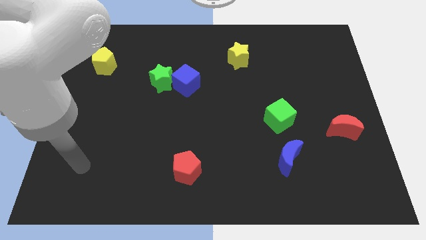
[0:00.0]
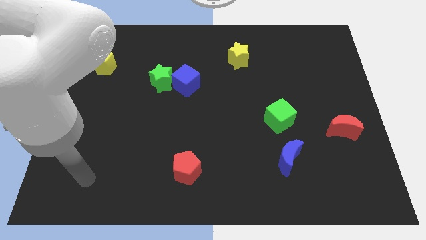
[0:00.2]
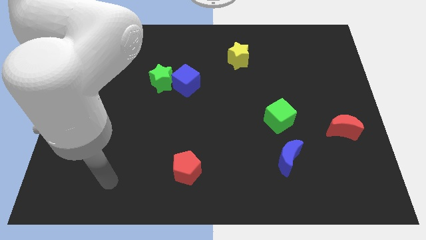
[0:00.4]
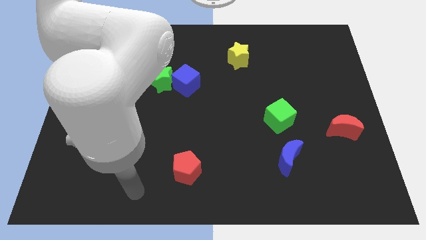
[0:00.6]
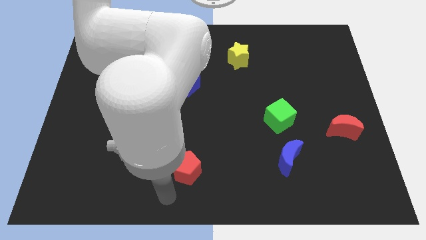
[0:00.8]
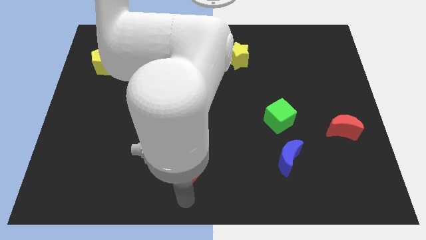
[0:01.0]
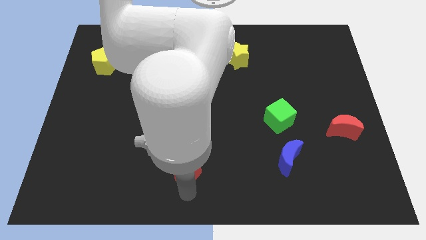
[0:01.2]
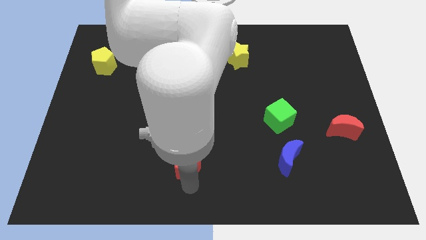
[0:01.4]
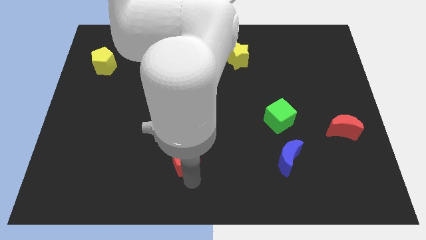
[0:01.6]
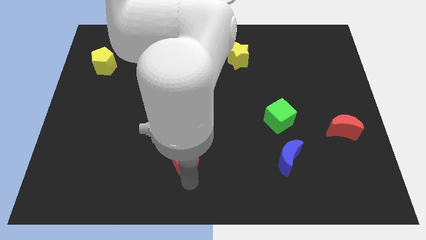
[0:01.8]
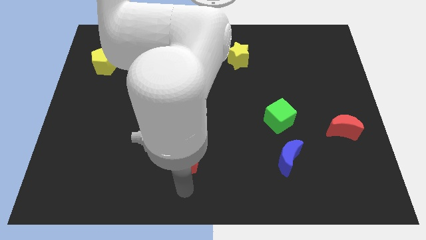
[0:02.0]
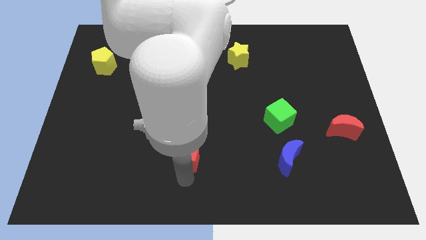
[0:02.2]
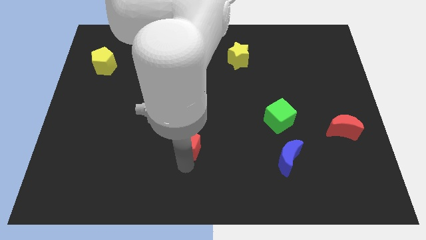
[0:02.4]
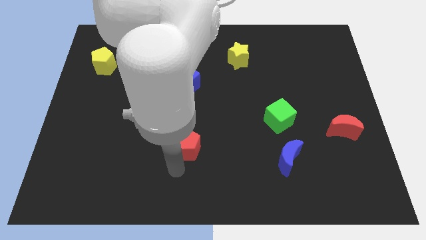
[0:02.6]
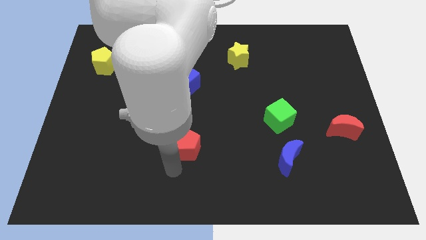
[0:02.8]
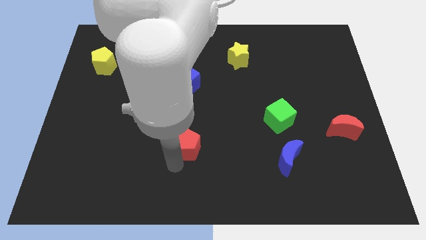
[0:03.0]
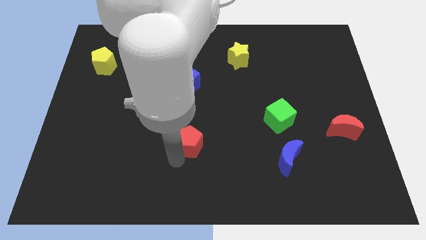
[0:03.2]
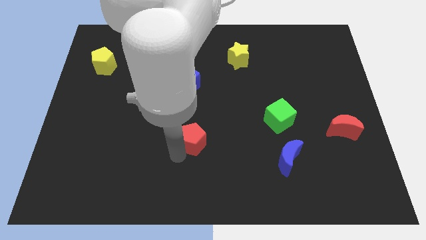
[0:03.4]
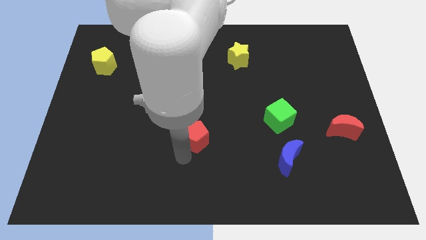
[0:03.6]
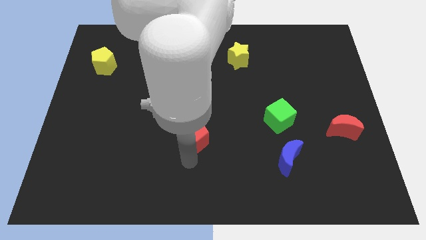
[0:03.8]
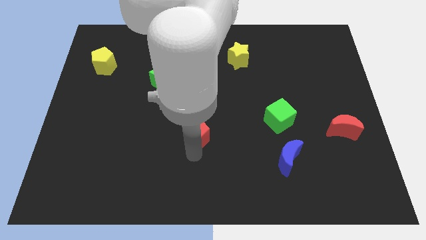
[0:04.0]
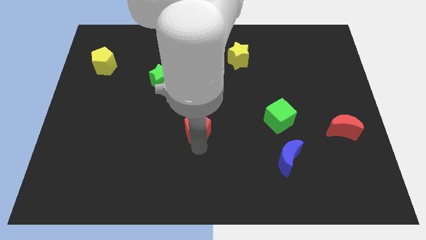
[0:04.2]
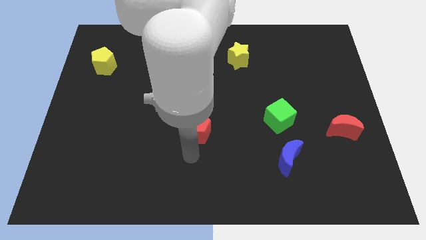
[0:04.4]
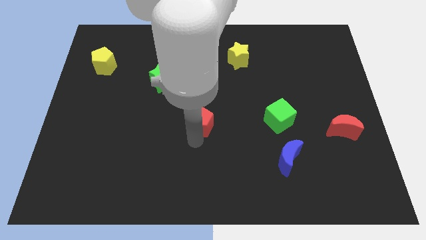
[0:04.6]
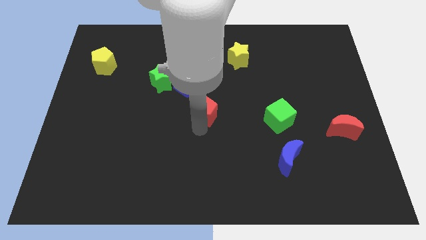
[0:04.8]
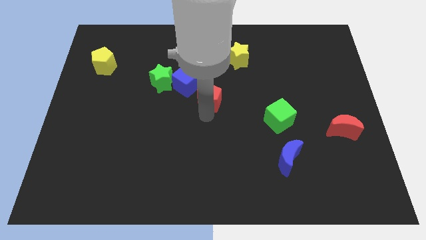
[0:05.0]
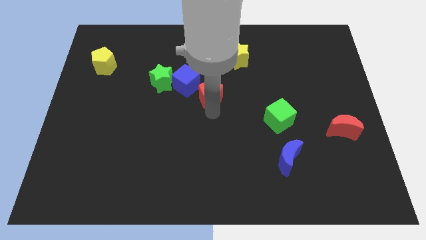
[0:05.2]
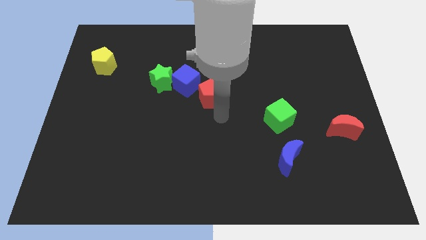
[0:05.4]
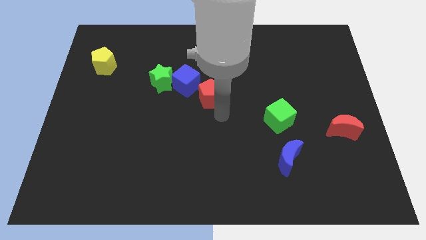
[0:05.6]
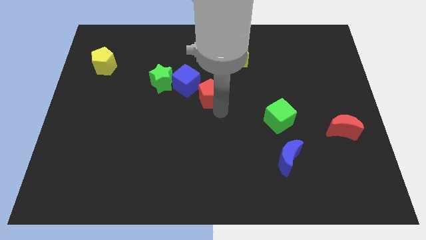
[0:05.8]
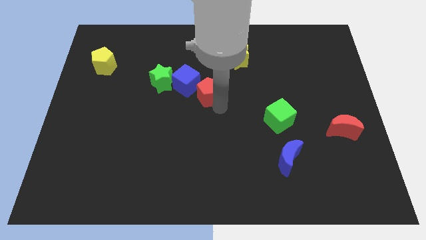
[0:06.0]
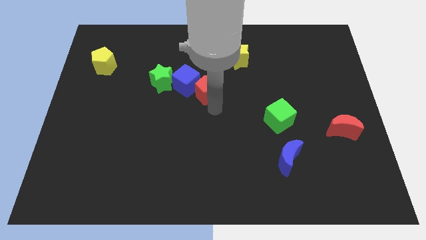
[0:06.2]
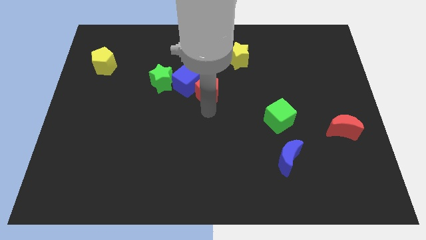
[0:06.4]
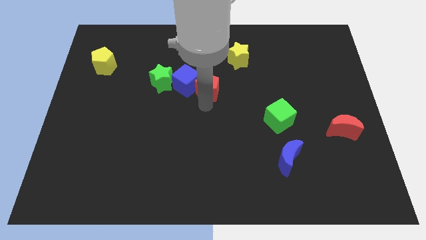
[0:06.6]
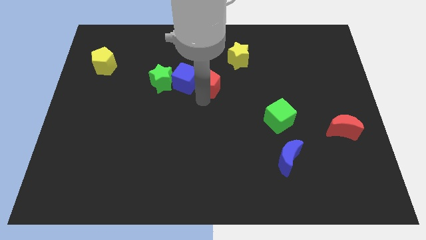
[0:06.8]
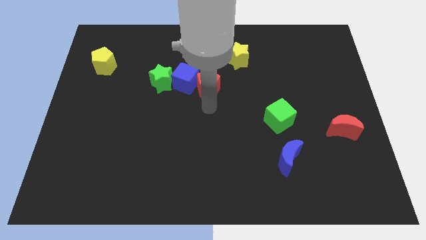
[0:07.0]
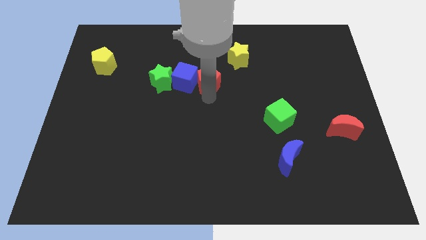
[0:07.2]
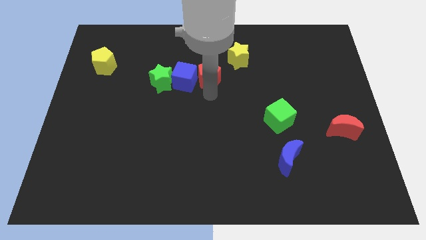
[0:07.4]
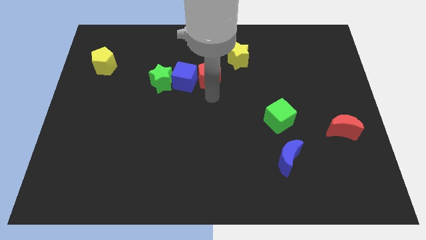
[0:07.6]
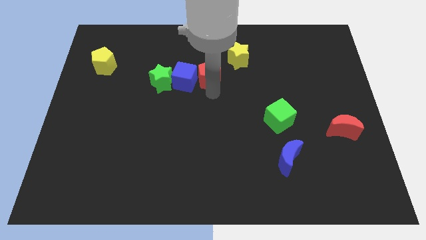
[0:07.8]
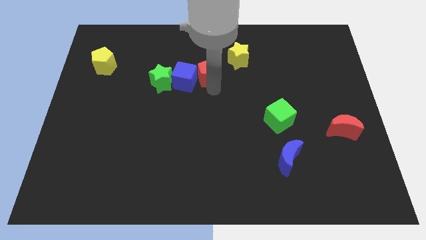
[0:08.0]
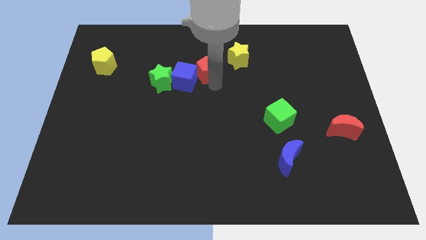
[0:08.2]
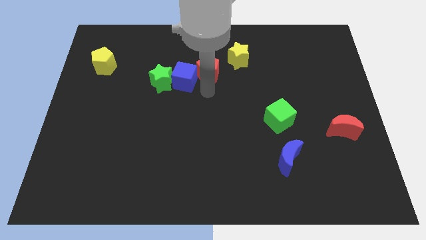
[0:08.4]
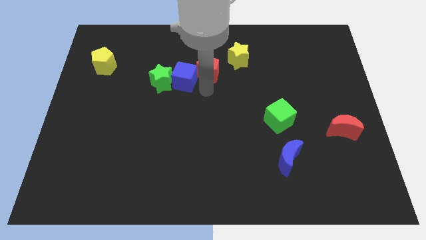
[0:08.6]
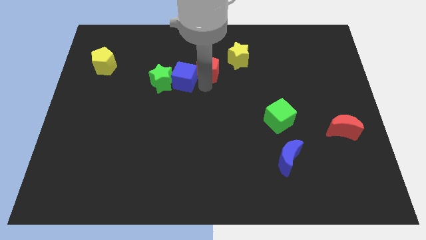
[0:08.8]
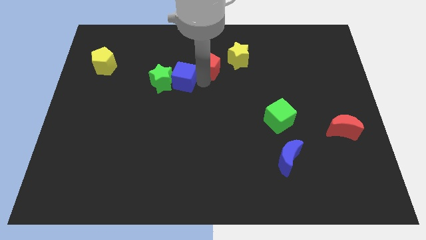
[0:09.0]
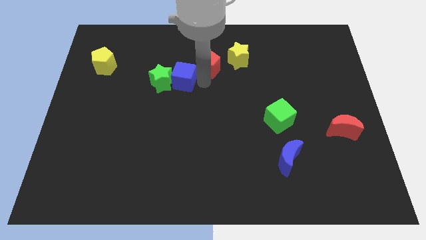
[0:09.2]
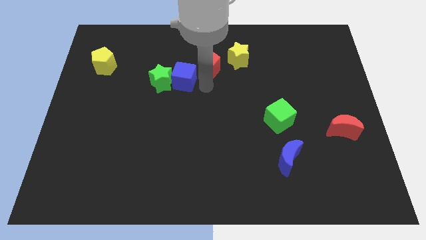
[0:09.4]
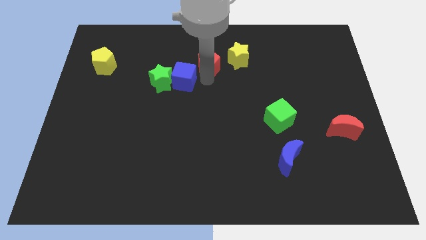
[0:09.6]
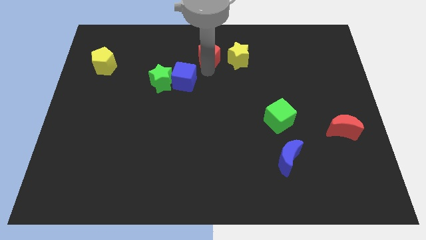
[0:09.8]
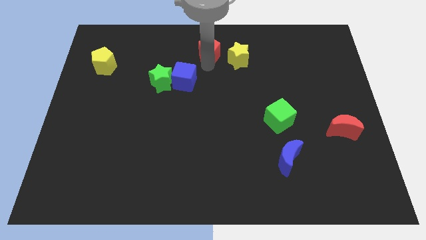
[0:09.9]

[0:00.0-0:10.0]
move the red pentagon to the top side

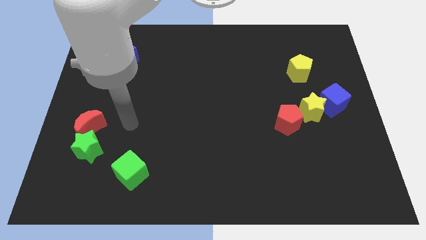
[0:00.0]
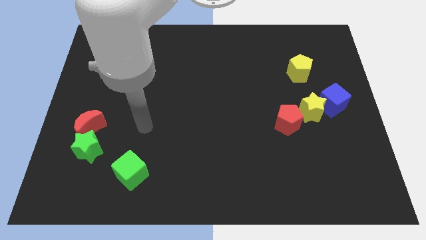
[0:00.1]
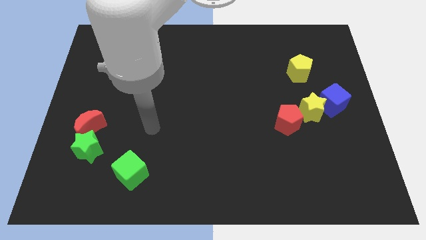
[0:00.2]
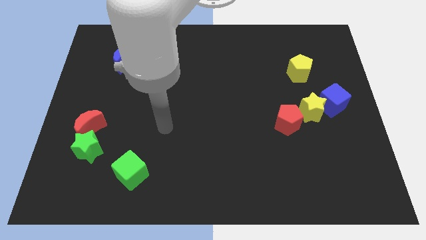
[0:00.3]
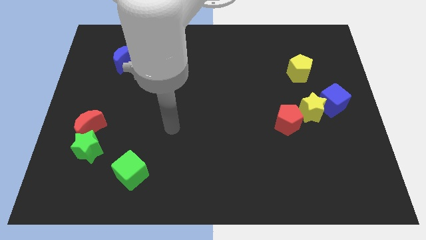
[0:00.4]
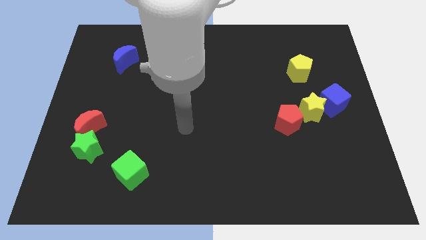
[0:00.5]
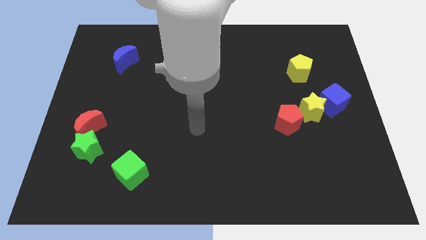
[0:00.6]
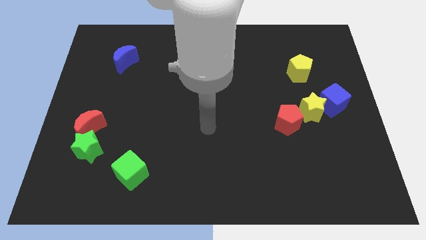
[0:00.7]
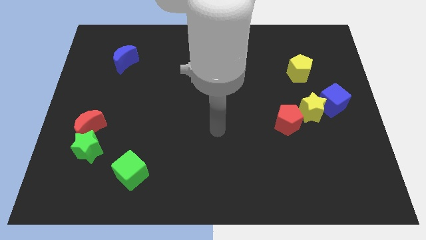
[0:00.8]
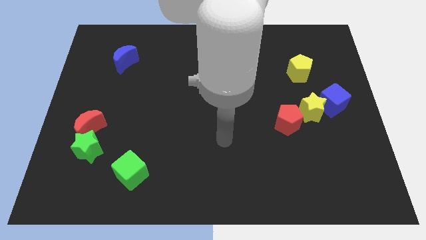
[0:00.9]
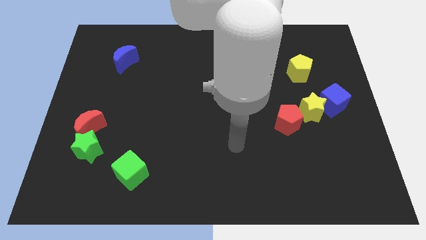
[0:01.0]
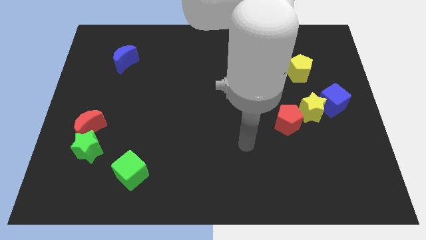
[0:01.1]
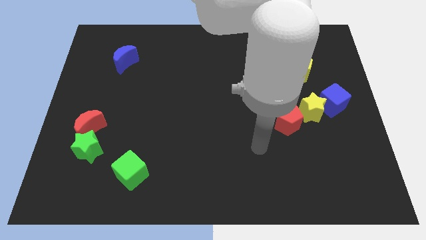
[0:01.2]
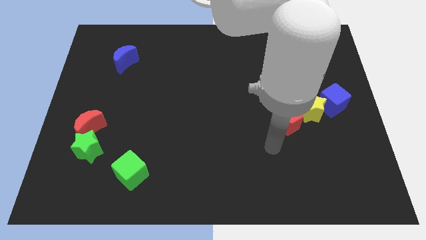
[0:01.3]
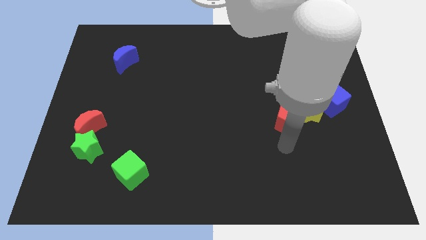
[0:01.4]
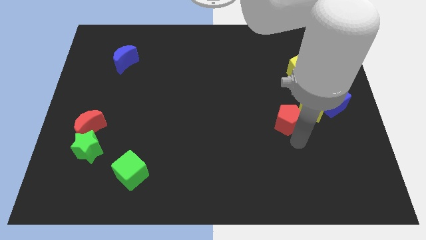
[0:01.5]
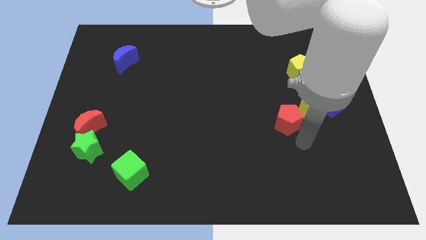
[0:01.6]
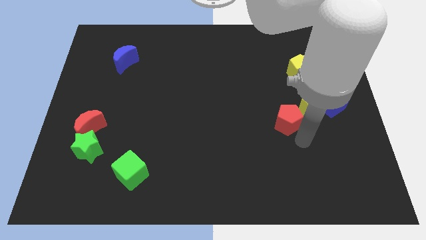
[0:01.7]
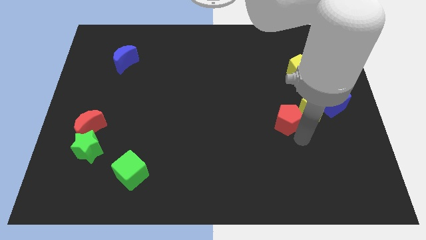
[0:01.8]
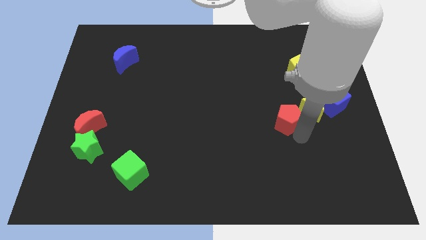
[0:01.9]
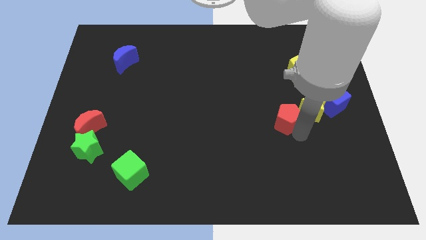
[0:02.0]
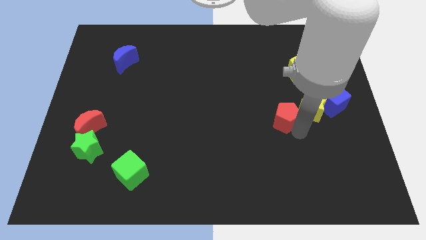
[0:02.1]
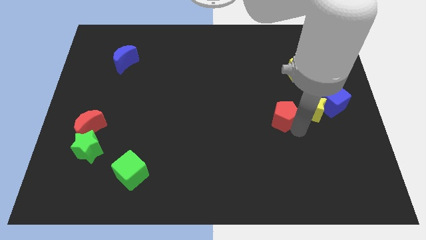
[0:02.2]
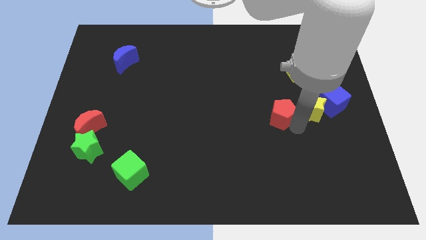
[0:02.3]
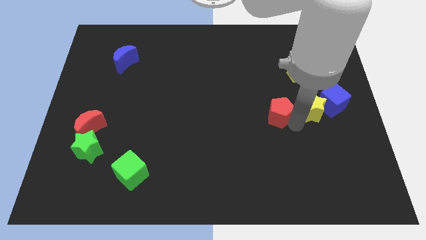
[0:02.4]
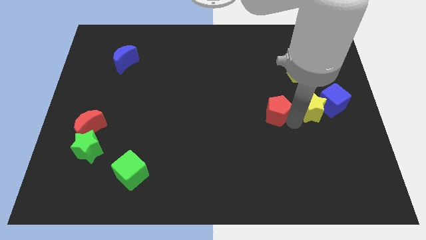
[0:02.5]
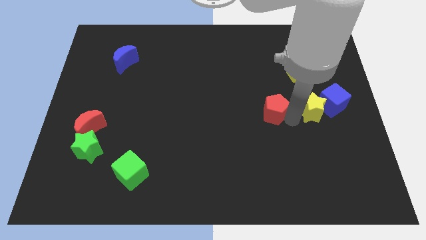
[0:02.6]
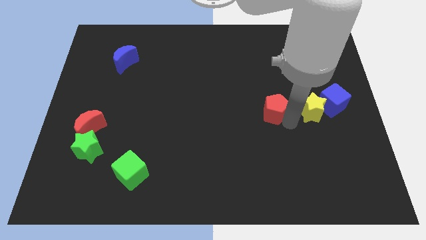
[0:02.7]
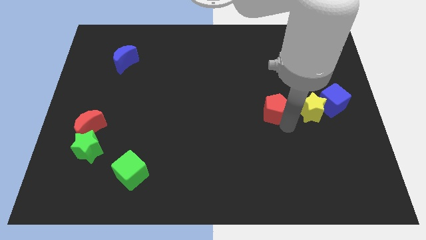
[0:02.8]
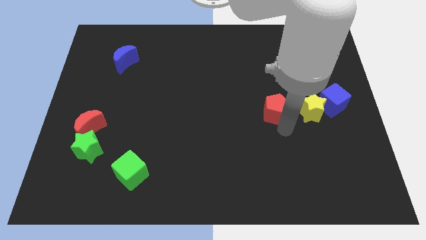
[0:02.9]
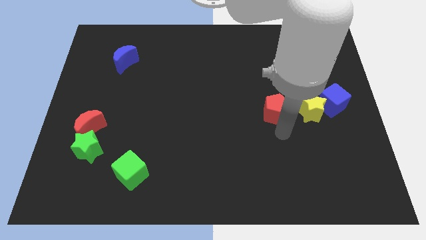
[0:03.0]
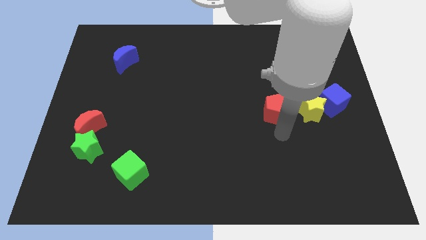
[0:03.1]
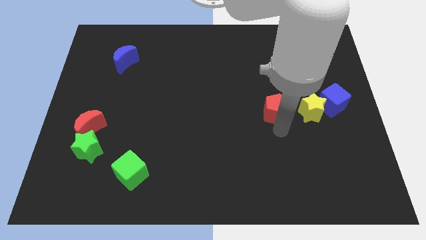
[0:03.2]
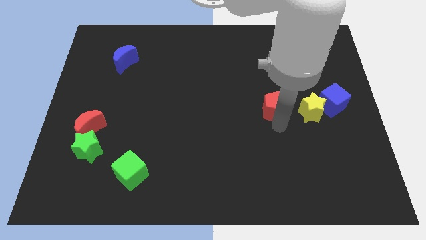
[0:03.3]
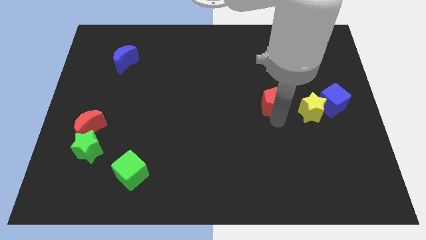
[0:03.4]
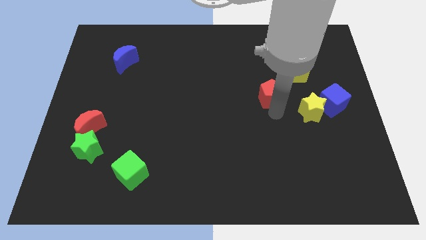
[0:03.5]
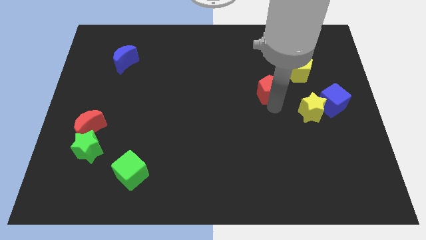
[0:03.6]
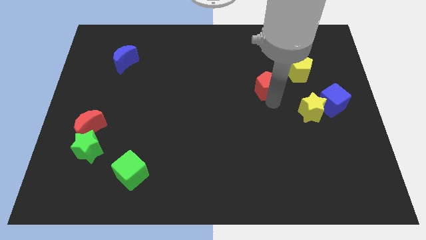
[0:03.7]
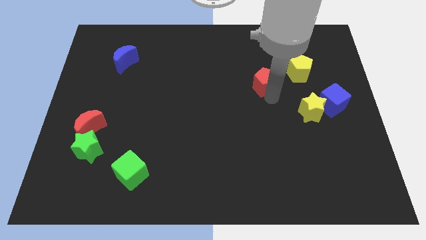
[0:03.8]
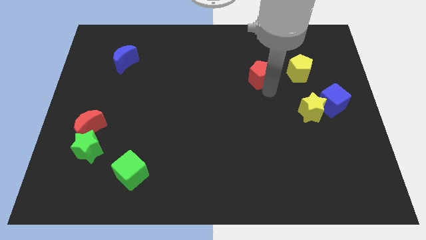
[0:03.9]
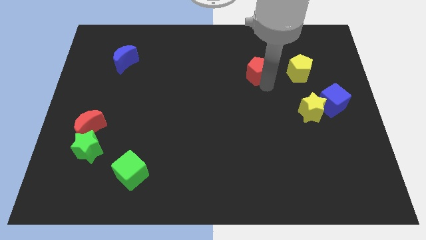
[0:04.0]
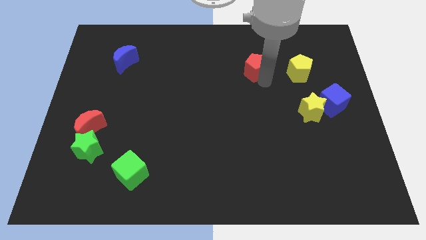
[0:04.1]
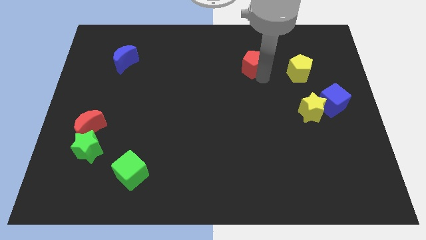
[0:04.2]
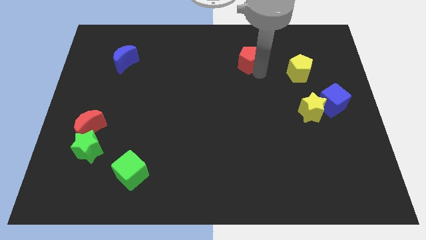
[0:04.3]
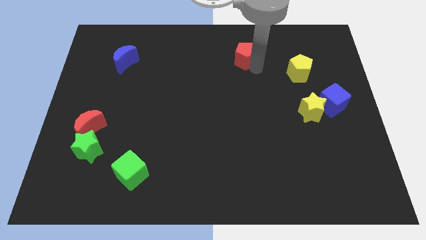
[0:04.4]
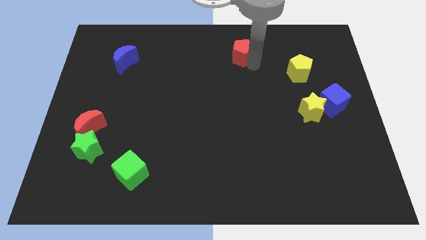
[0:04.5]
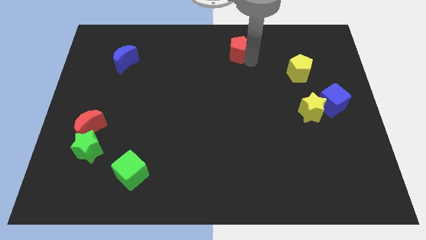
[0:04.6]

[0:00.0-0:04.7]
push the red pentagon to the towards your base
